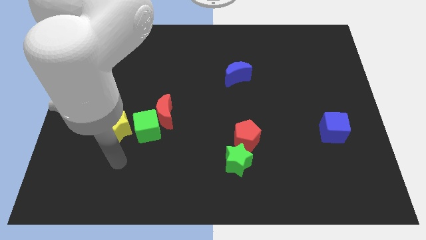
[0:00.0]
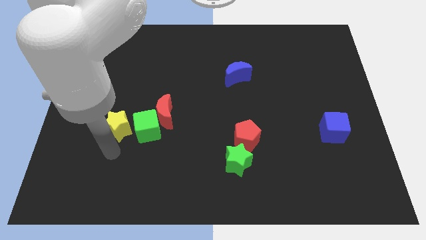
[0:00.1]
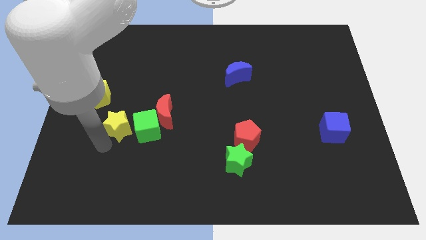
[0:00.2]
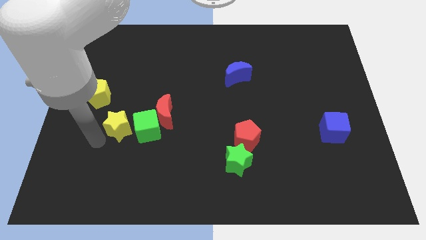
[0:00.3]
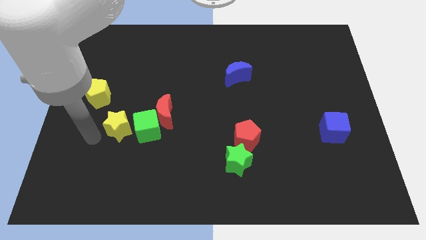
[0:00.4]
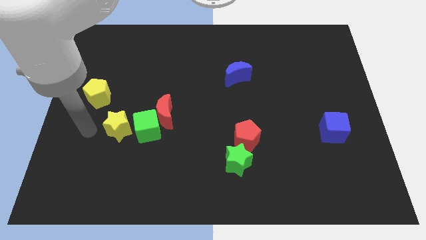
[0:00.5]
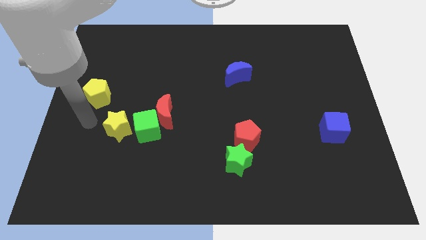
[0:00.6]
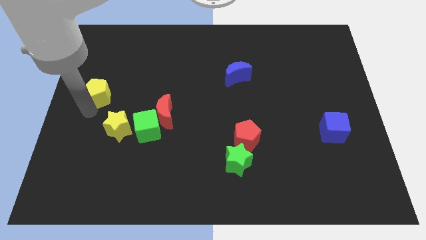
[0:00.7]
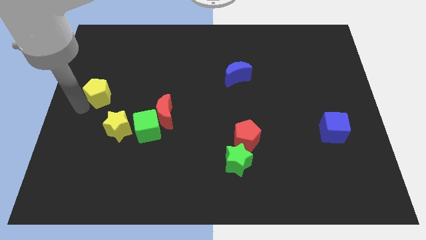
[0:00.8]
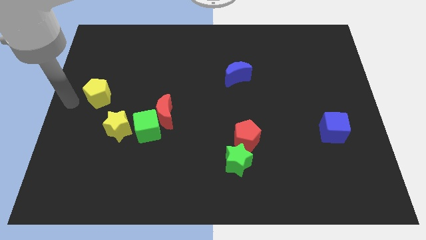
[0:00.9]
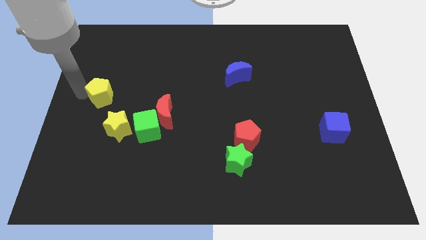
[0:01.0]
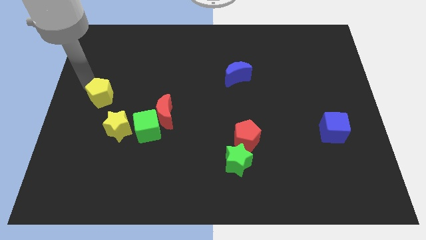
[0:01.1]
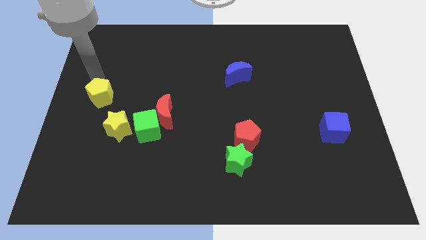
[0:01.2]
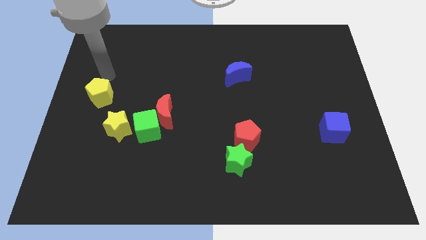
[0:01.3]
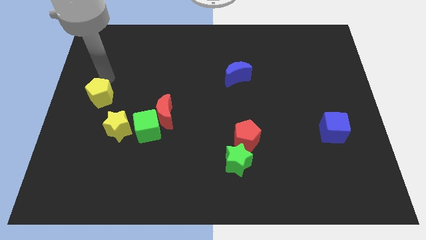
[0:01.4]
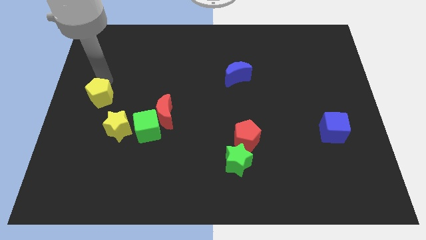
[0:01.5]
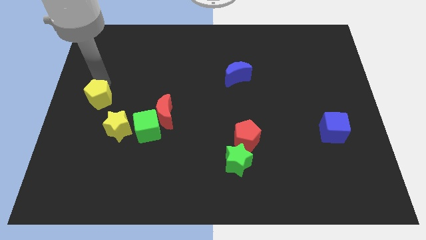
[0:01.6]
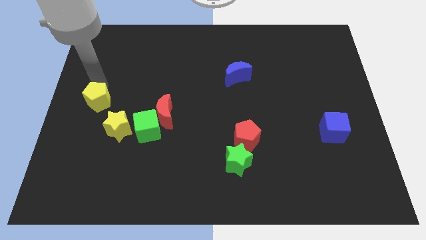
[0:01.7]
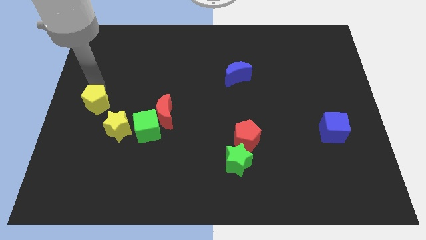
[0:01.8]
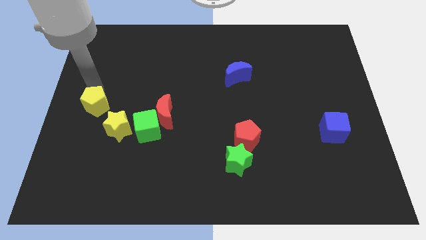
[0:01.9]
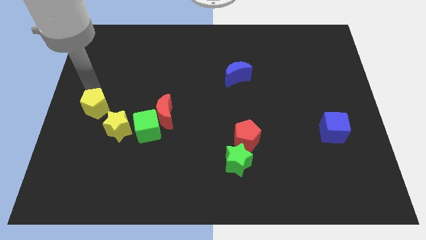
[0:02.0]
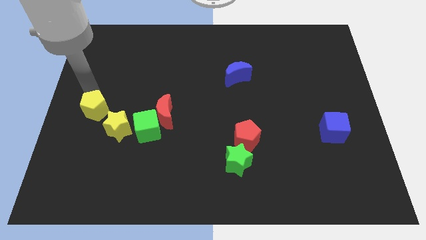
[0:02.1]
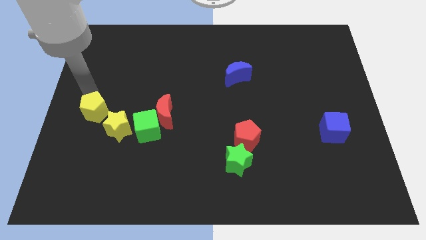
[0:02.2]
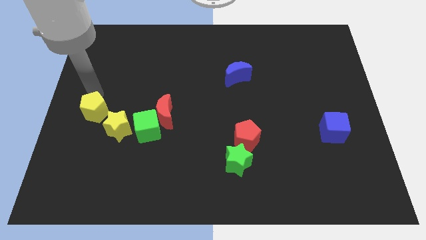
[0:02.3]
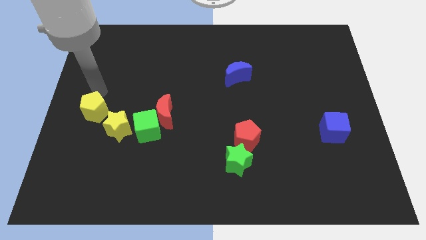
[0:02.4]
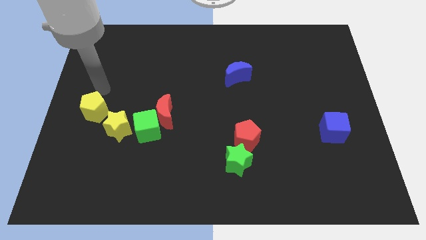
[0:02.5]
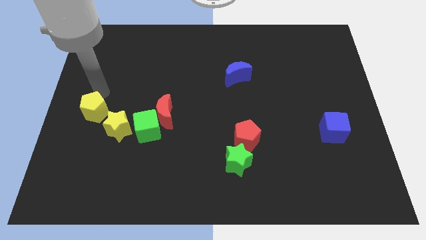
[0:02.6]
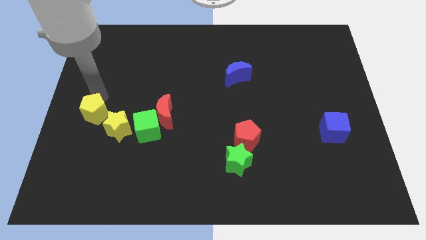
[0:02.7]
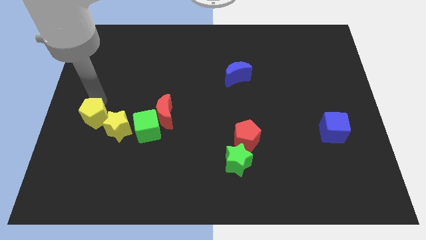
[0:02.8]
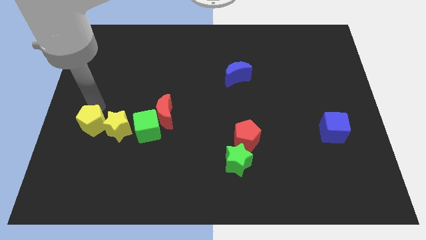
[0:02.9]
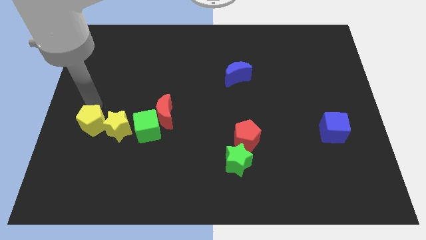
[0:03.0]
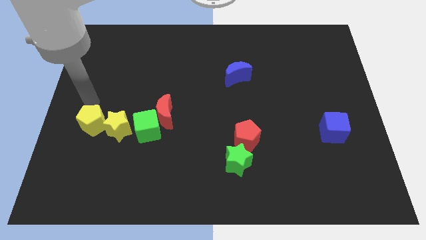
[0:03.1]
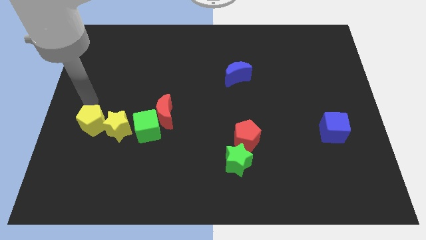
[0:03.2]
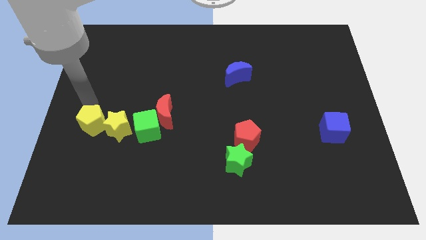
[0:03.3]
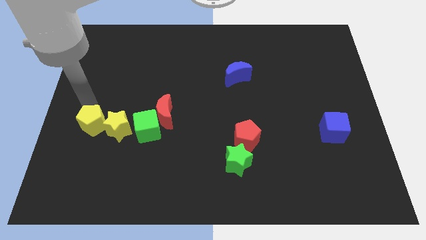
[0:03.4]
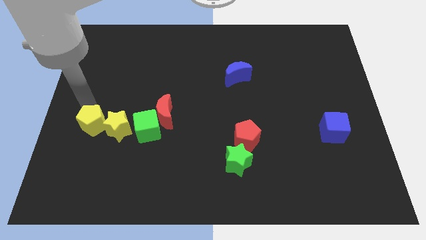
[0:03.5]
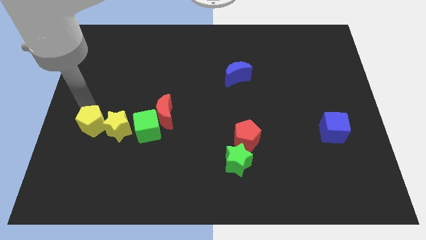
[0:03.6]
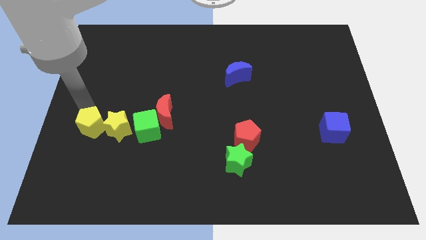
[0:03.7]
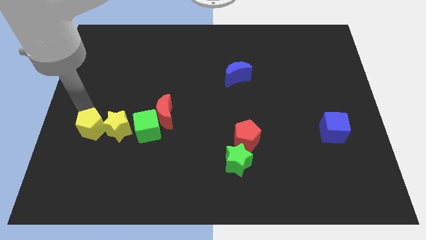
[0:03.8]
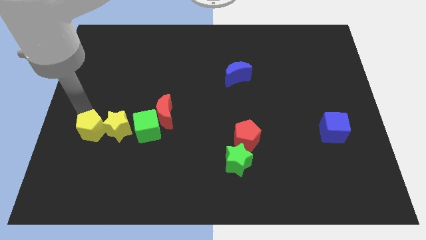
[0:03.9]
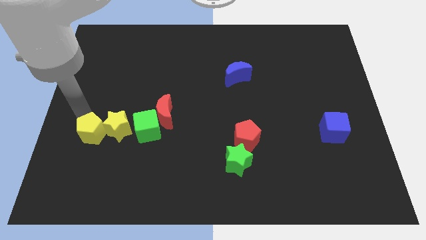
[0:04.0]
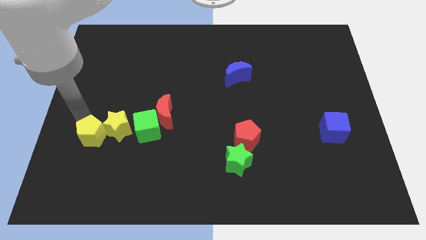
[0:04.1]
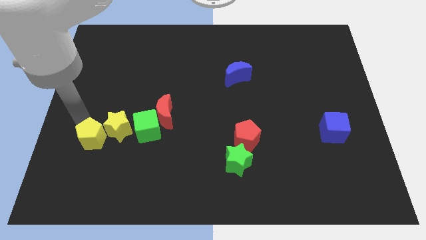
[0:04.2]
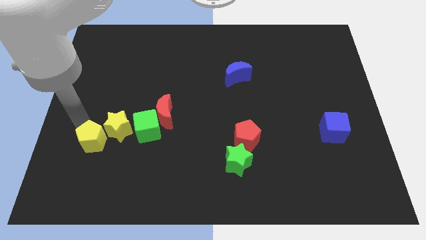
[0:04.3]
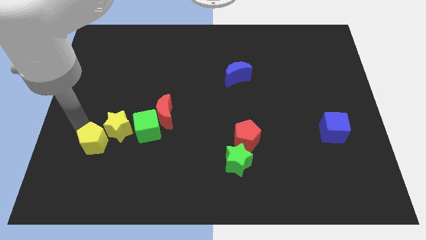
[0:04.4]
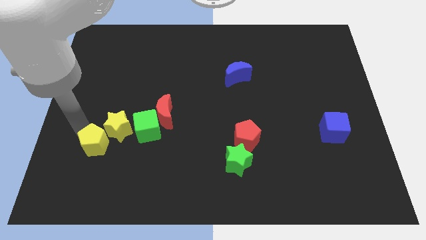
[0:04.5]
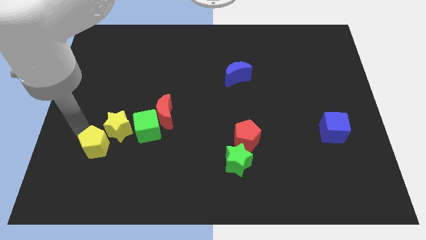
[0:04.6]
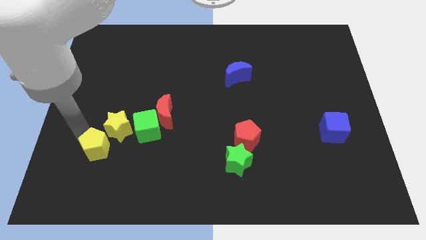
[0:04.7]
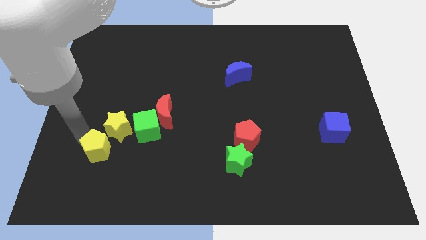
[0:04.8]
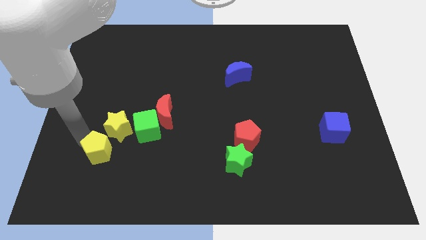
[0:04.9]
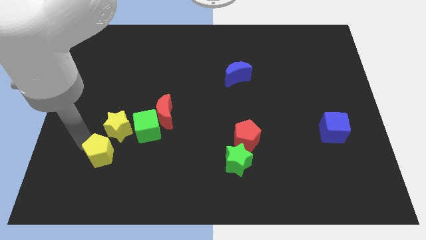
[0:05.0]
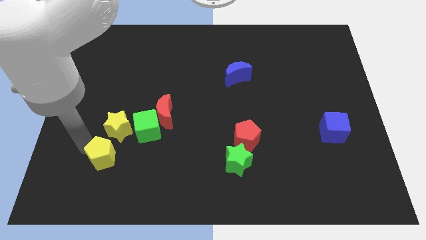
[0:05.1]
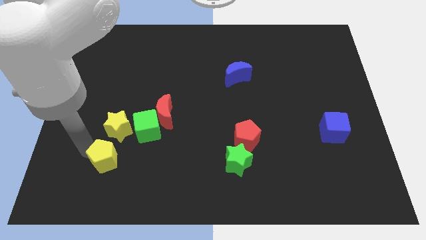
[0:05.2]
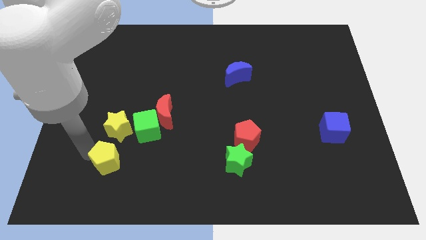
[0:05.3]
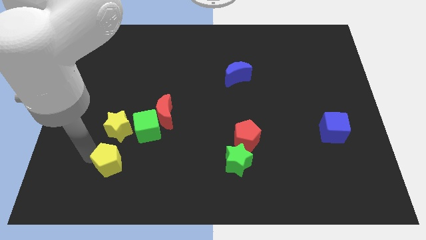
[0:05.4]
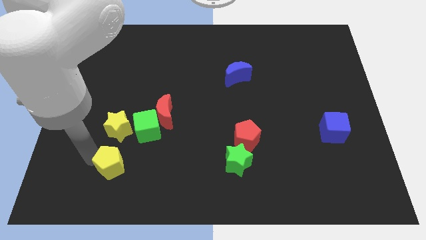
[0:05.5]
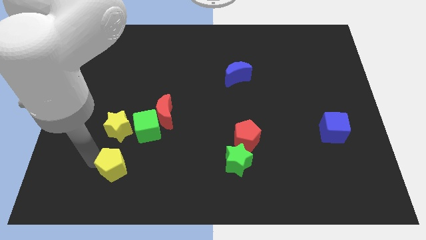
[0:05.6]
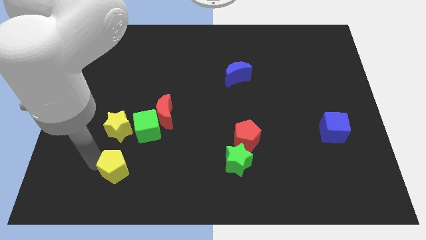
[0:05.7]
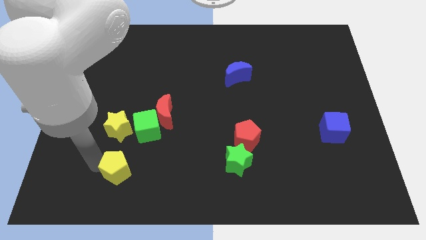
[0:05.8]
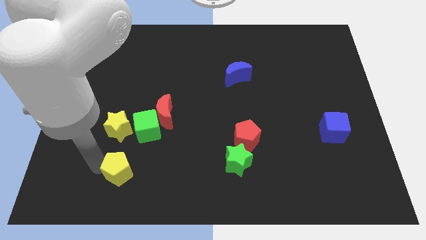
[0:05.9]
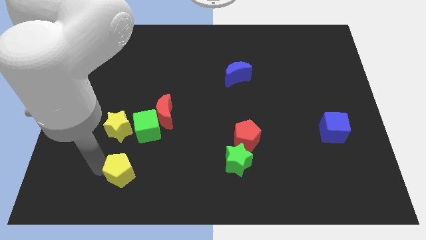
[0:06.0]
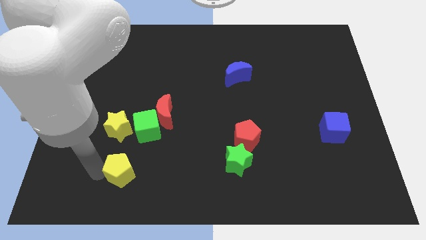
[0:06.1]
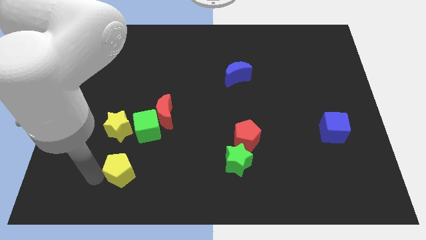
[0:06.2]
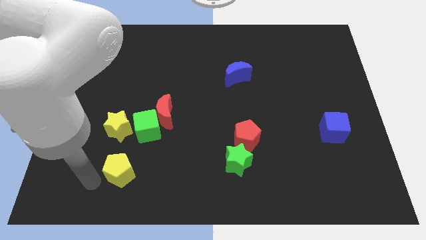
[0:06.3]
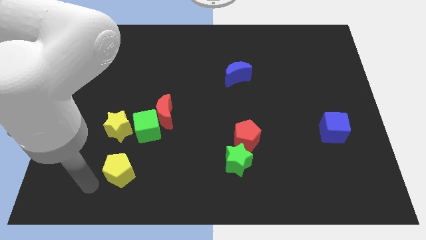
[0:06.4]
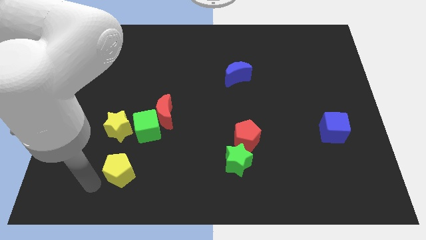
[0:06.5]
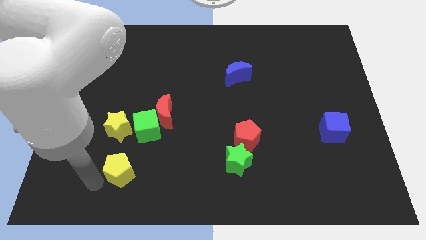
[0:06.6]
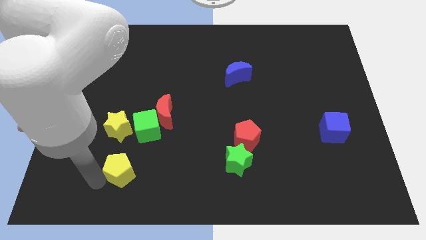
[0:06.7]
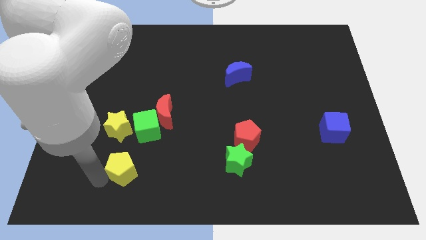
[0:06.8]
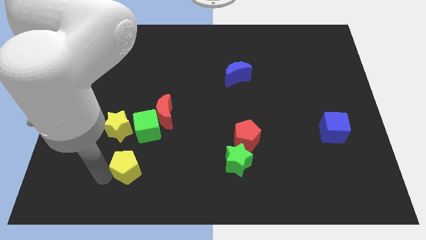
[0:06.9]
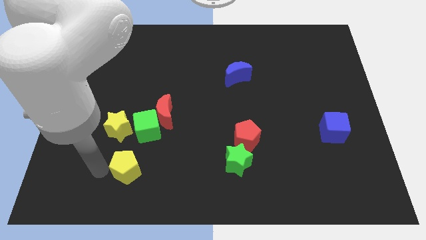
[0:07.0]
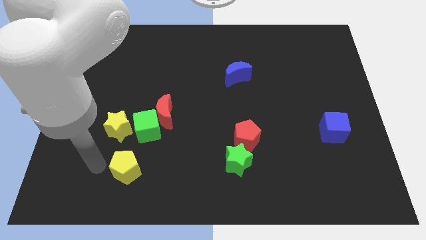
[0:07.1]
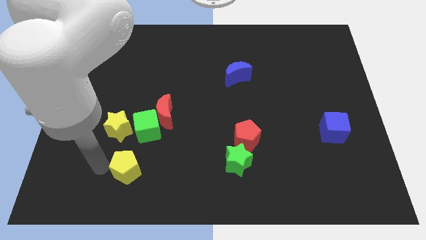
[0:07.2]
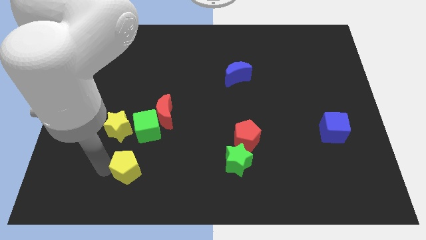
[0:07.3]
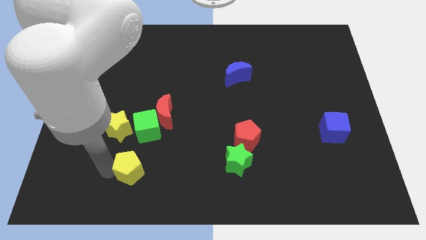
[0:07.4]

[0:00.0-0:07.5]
move the yellow pentagon down and right

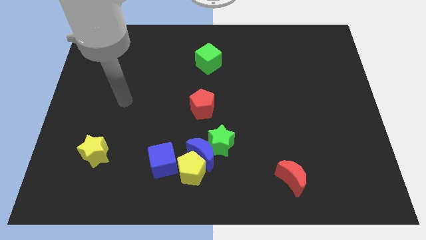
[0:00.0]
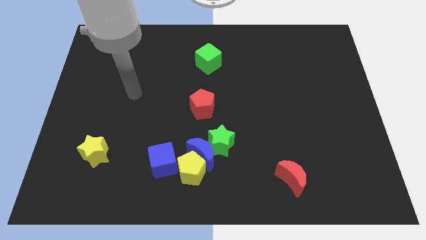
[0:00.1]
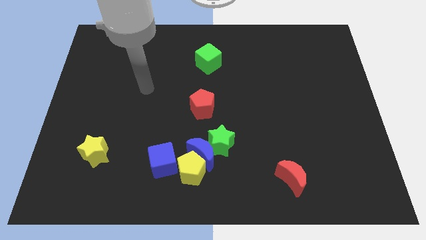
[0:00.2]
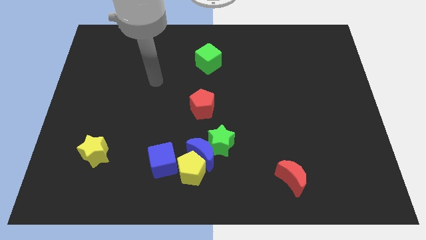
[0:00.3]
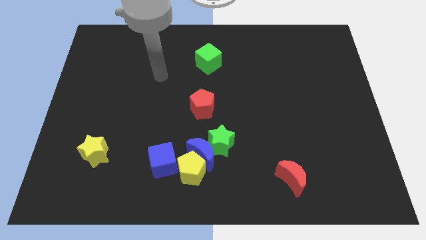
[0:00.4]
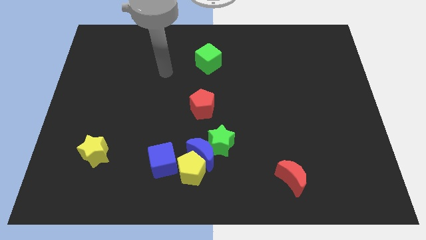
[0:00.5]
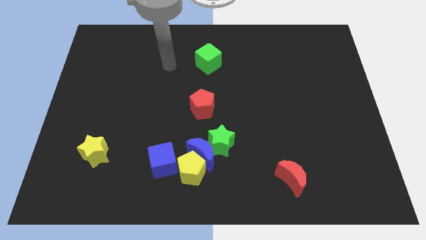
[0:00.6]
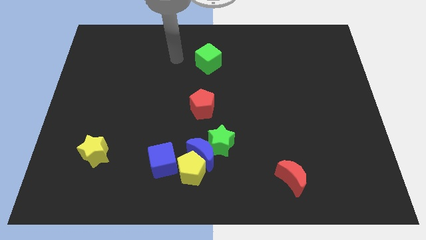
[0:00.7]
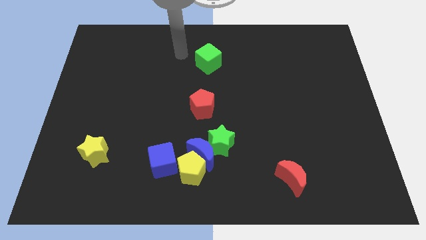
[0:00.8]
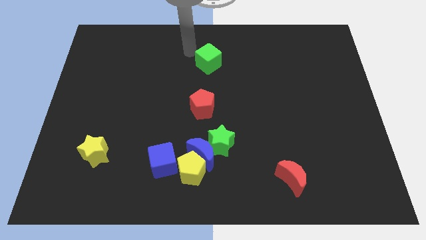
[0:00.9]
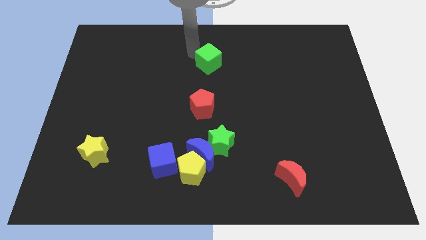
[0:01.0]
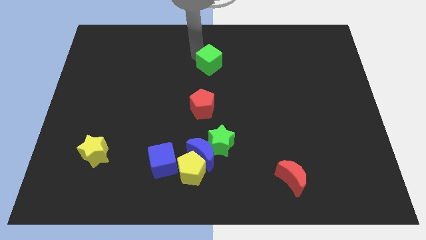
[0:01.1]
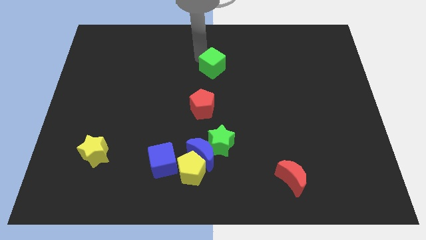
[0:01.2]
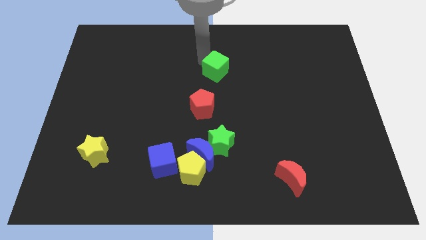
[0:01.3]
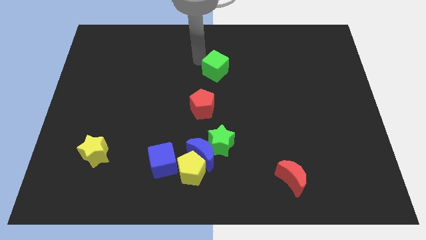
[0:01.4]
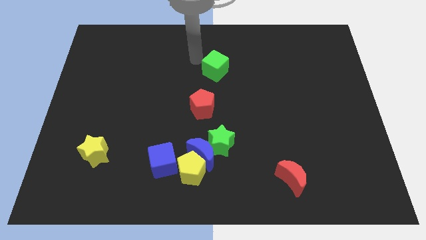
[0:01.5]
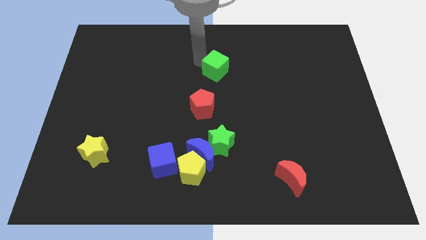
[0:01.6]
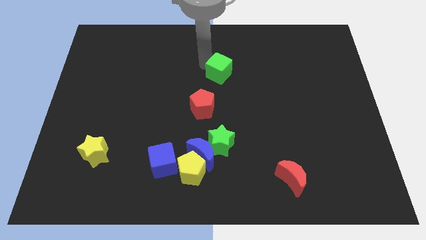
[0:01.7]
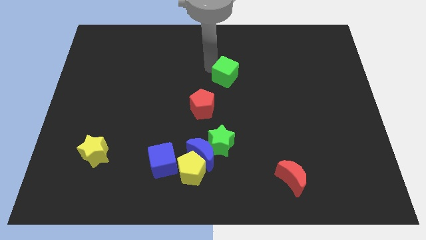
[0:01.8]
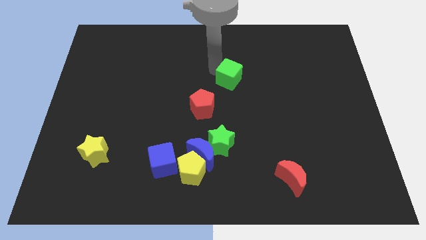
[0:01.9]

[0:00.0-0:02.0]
slide the green cube somewhat downwards and right diagonally
